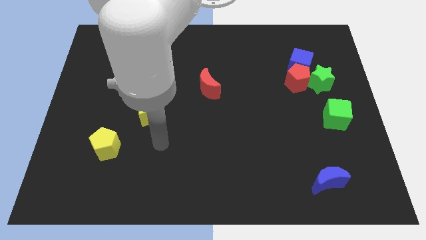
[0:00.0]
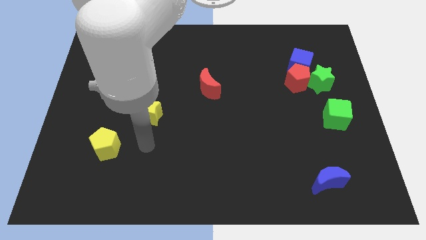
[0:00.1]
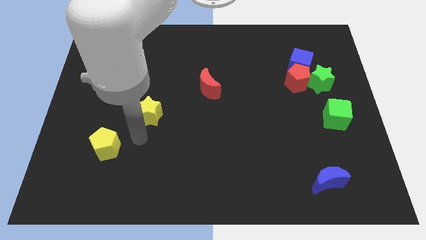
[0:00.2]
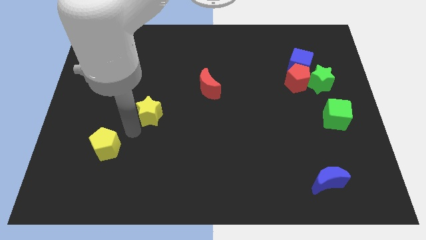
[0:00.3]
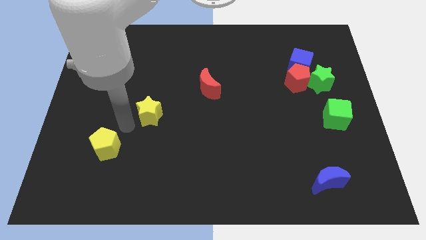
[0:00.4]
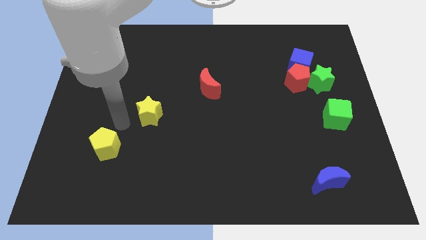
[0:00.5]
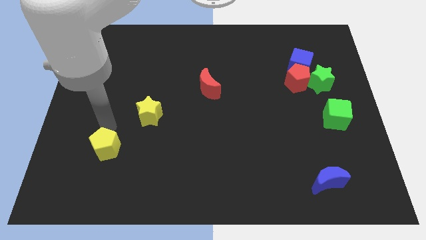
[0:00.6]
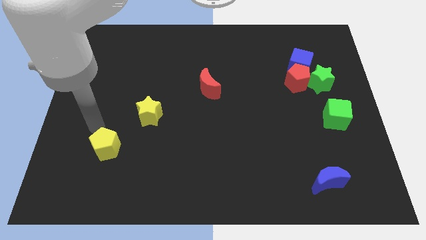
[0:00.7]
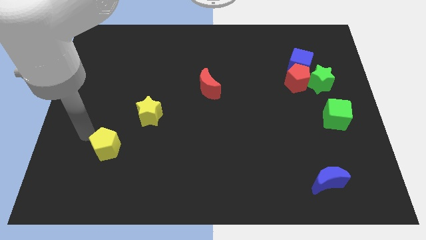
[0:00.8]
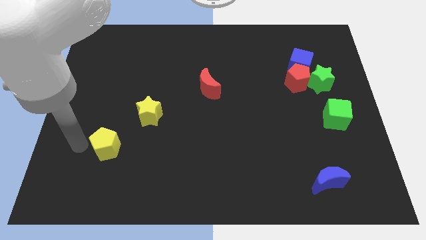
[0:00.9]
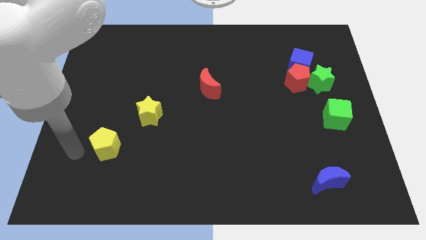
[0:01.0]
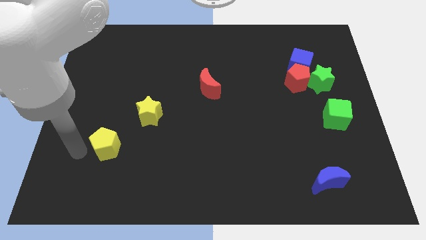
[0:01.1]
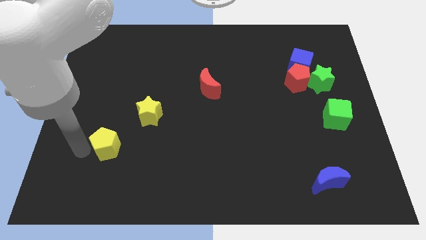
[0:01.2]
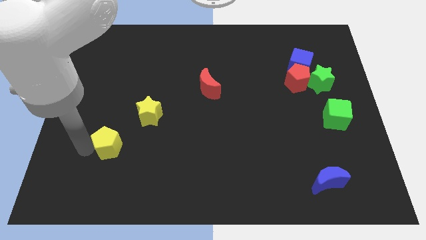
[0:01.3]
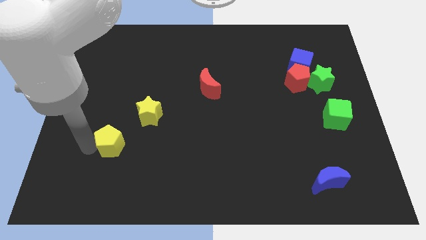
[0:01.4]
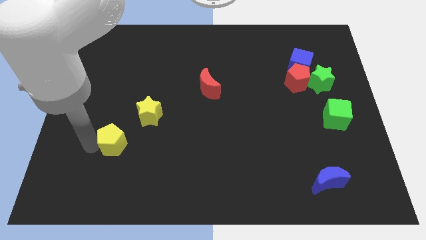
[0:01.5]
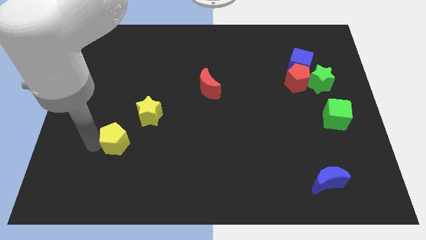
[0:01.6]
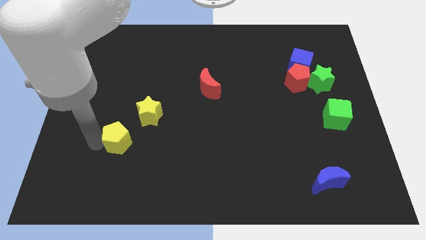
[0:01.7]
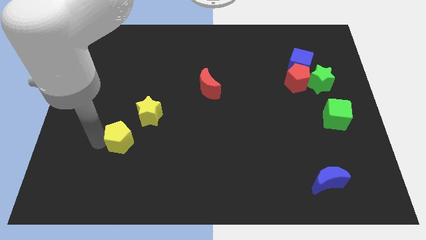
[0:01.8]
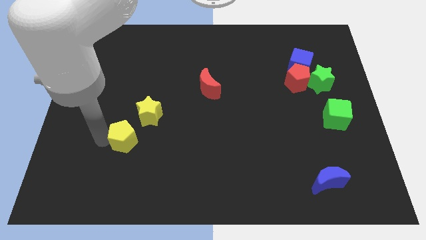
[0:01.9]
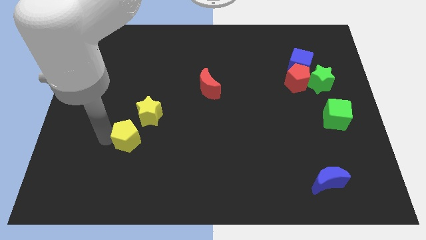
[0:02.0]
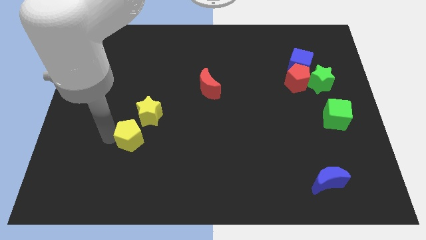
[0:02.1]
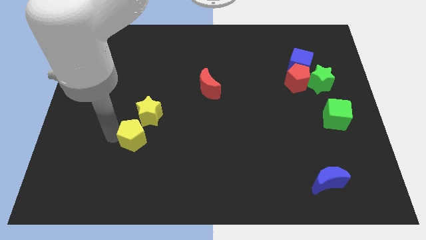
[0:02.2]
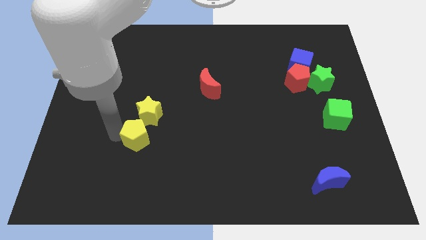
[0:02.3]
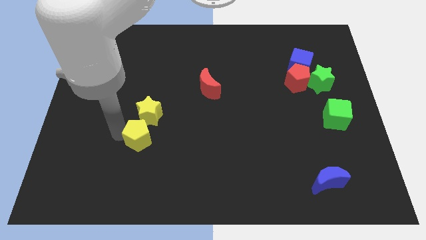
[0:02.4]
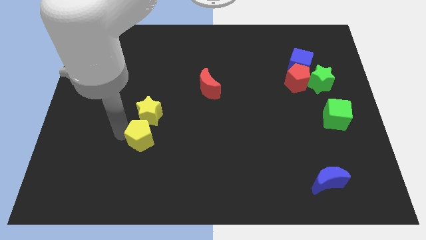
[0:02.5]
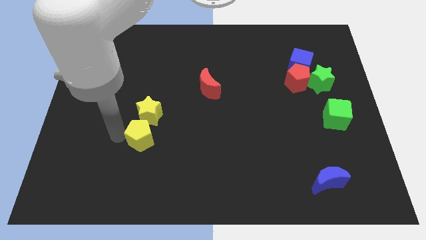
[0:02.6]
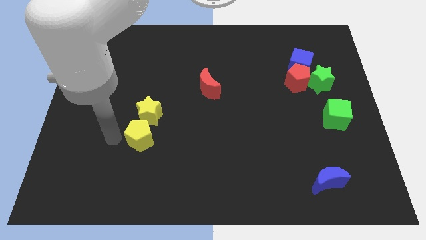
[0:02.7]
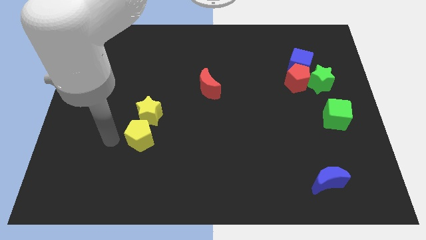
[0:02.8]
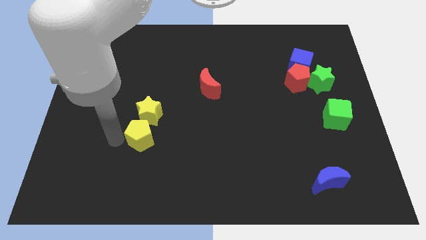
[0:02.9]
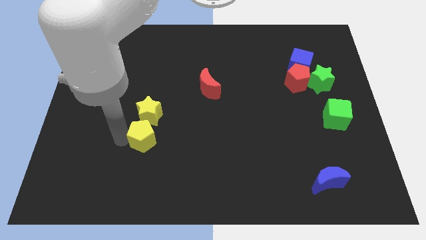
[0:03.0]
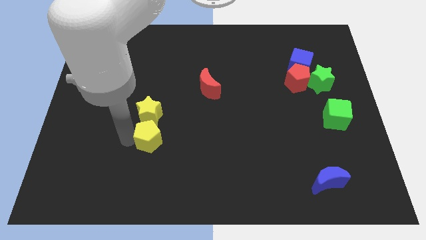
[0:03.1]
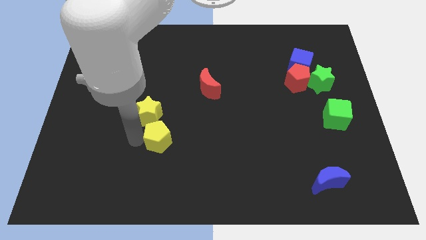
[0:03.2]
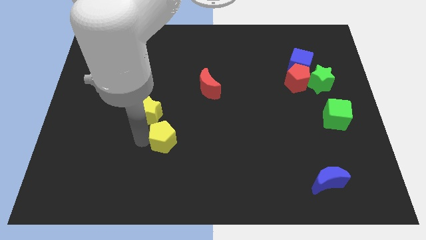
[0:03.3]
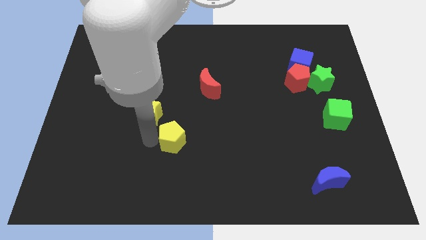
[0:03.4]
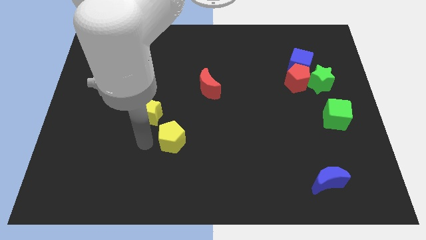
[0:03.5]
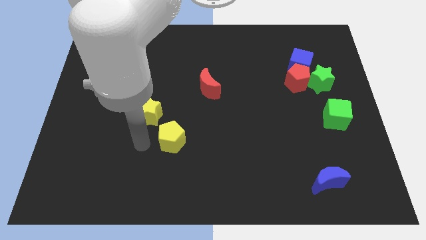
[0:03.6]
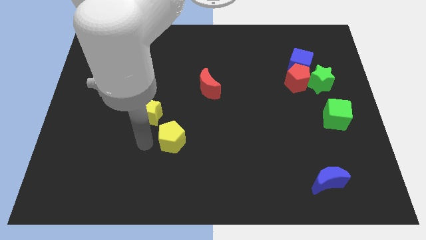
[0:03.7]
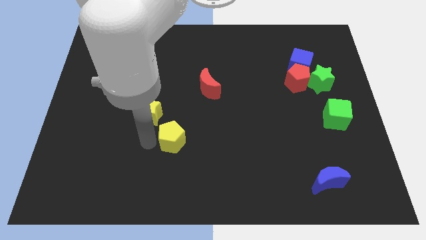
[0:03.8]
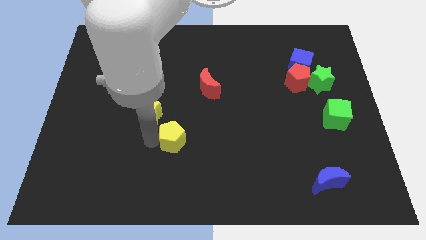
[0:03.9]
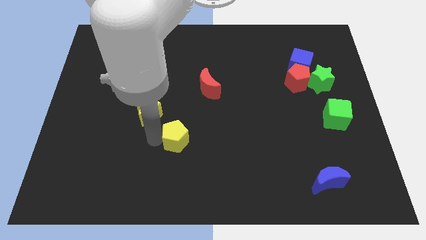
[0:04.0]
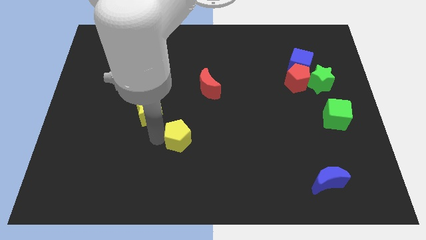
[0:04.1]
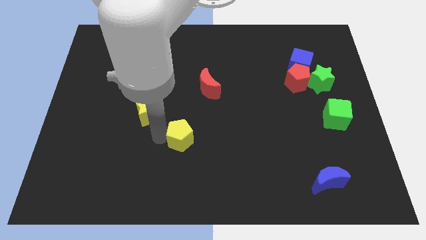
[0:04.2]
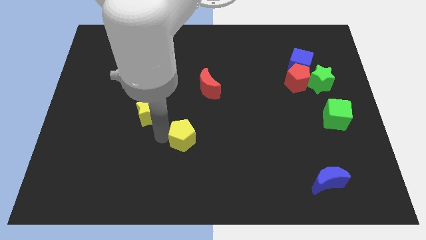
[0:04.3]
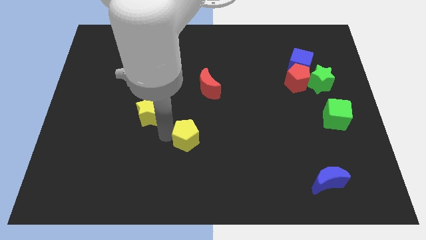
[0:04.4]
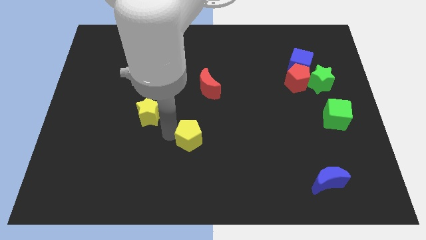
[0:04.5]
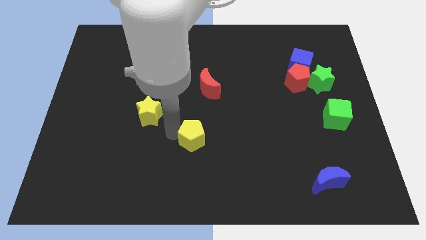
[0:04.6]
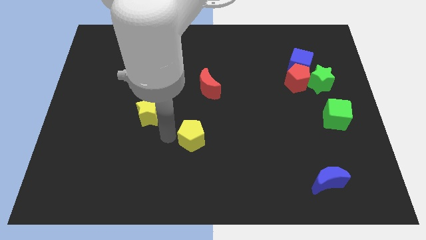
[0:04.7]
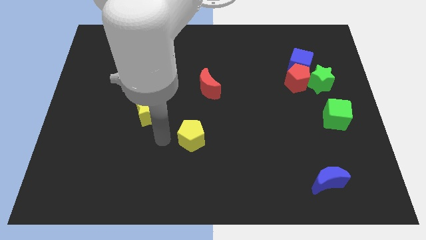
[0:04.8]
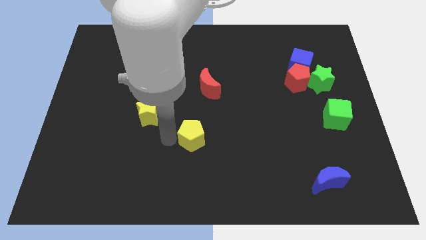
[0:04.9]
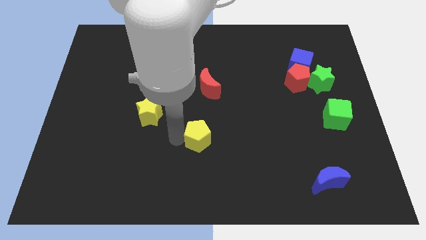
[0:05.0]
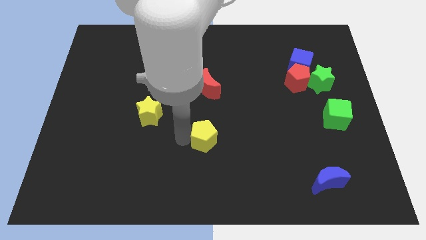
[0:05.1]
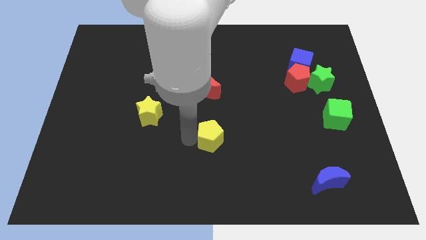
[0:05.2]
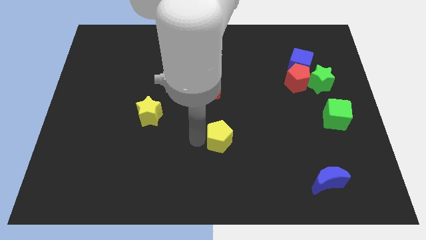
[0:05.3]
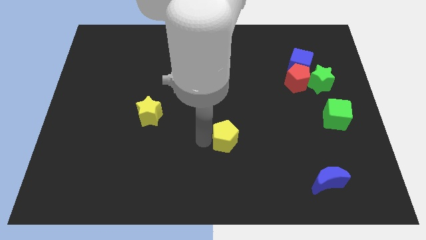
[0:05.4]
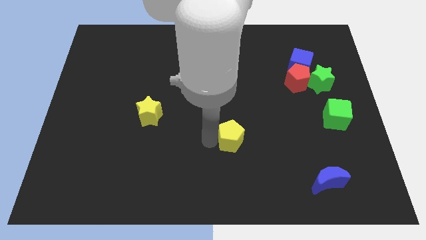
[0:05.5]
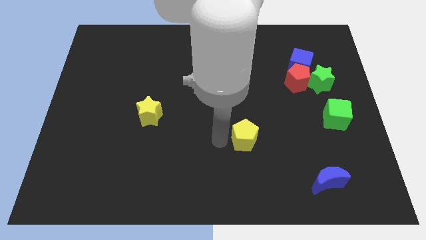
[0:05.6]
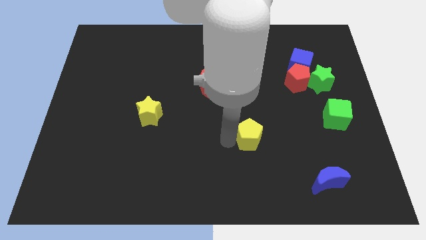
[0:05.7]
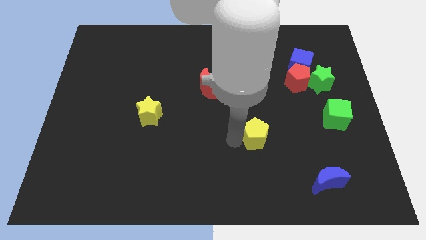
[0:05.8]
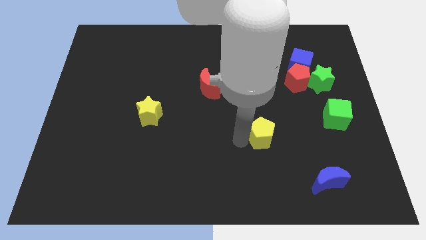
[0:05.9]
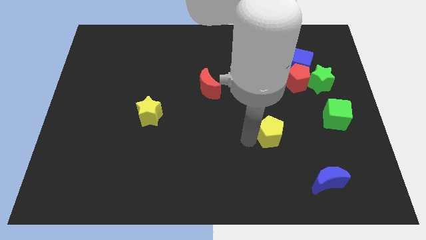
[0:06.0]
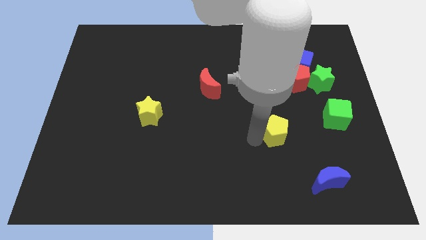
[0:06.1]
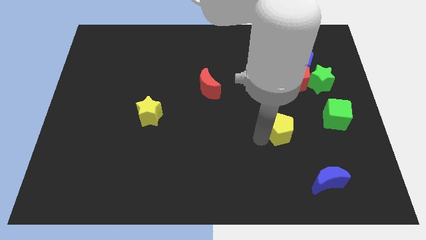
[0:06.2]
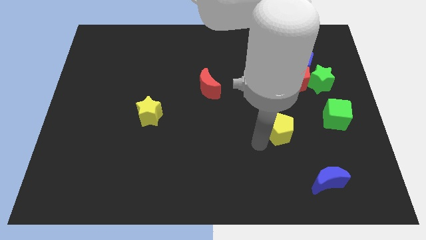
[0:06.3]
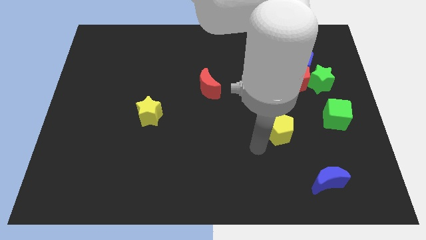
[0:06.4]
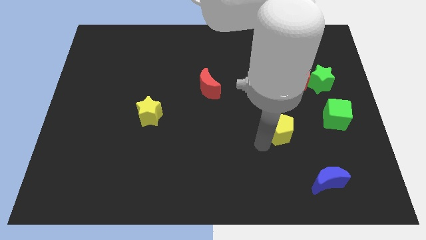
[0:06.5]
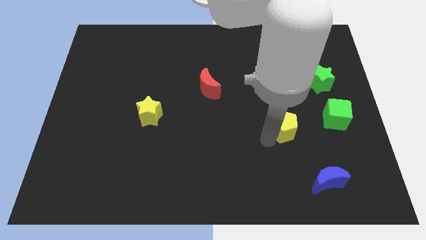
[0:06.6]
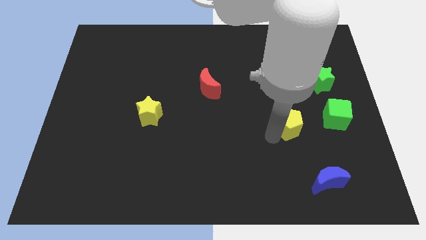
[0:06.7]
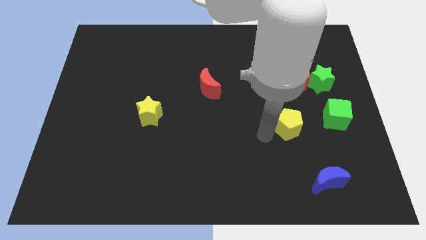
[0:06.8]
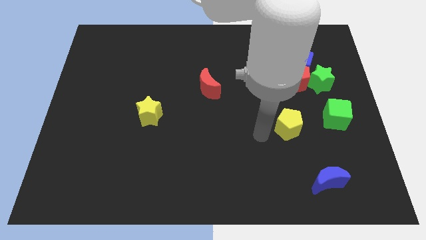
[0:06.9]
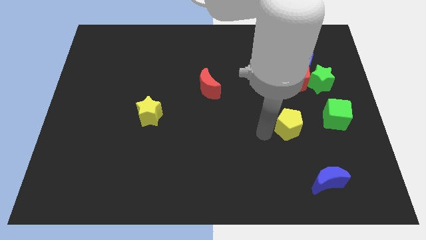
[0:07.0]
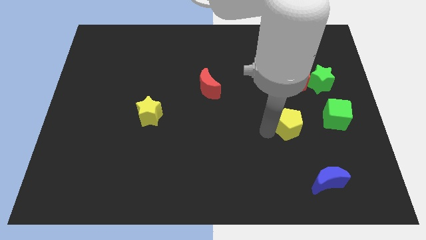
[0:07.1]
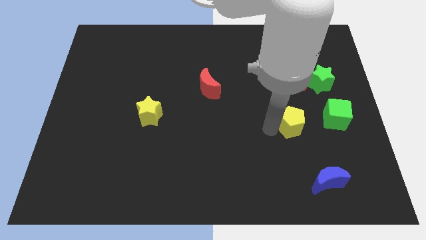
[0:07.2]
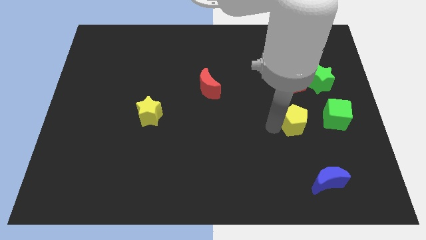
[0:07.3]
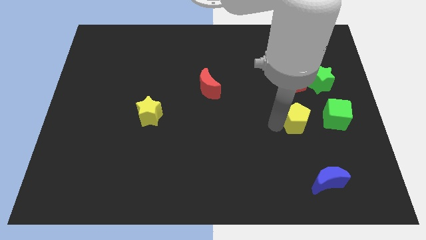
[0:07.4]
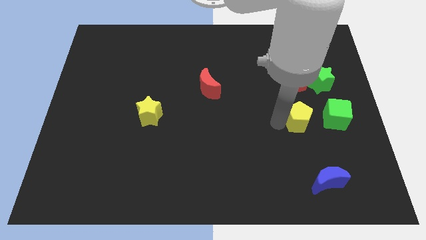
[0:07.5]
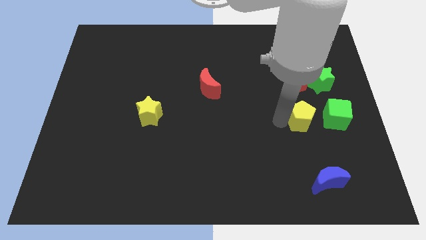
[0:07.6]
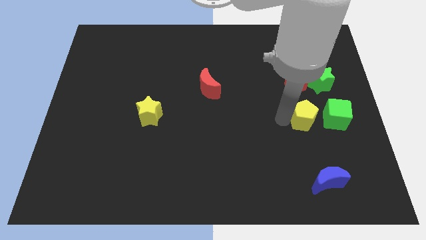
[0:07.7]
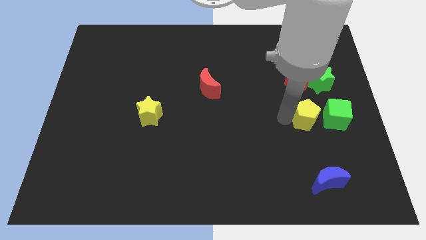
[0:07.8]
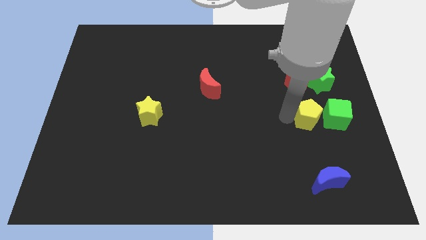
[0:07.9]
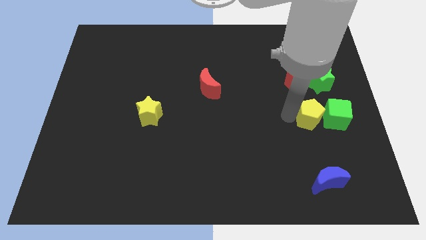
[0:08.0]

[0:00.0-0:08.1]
push the yellow pentagon close to the green cube
